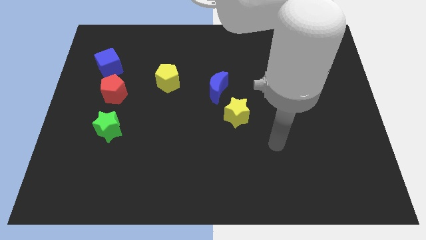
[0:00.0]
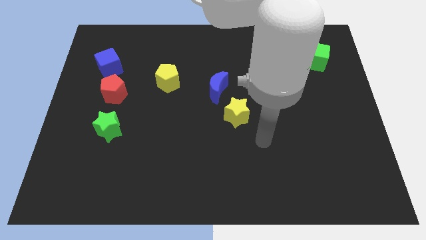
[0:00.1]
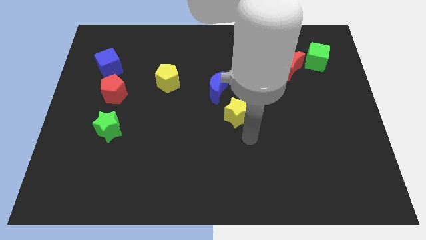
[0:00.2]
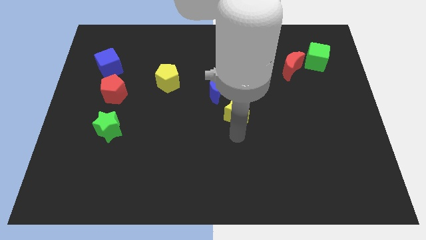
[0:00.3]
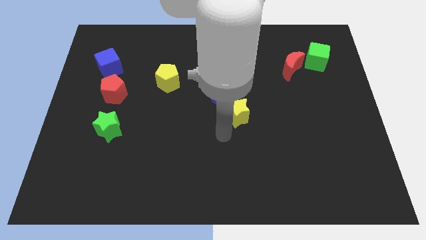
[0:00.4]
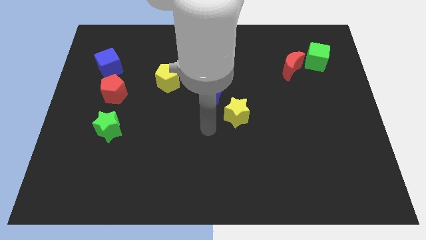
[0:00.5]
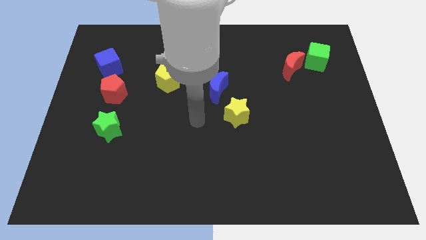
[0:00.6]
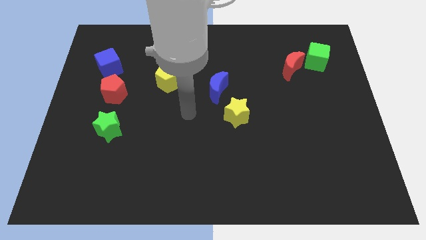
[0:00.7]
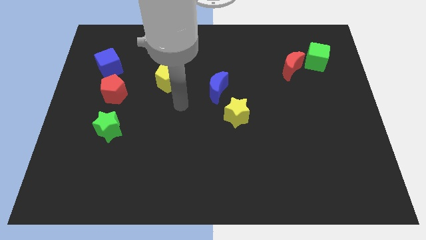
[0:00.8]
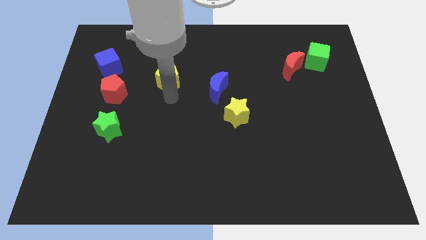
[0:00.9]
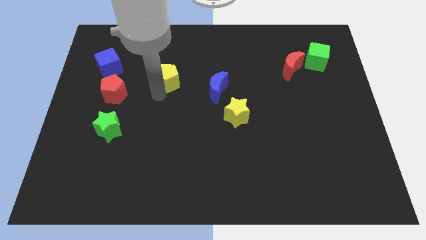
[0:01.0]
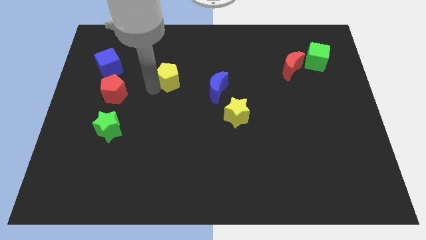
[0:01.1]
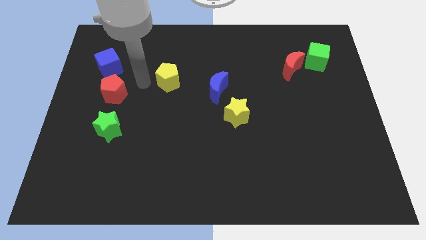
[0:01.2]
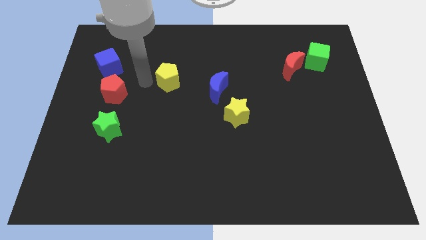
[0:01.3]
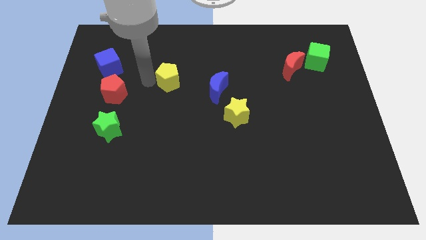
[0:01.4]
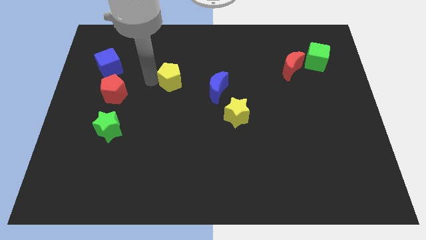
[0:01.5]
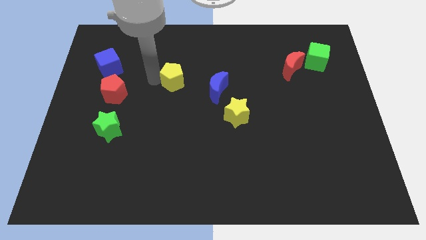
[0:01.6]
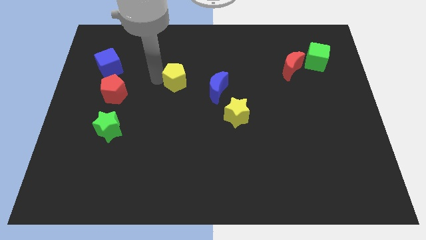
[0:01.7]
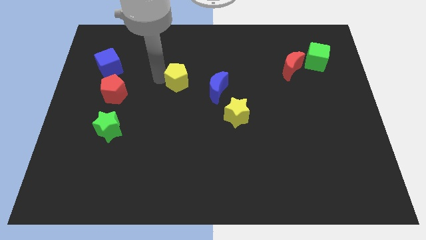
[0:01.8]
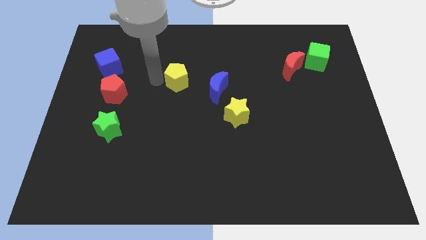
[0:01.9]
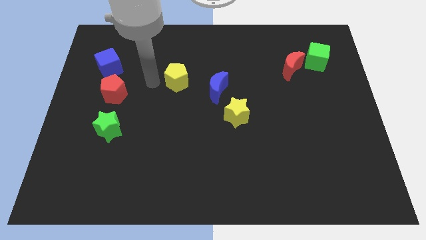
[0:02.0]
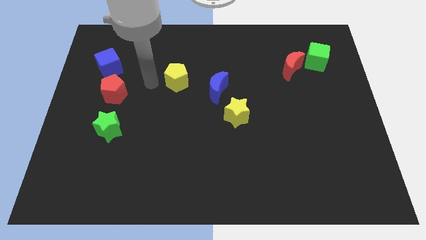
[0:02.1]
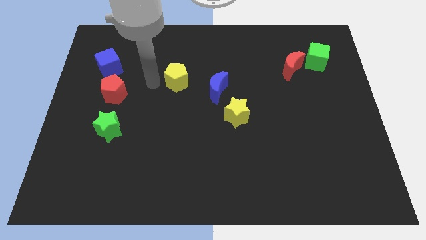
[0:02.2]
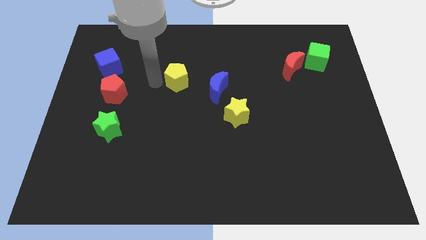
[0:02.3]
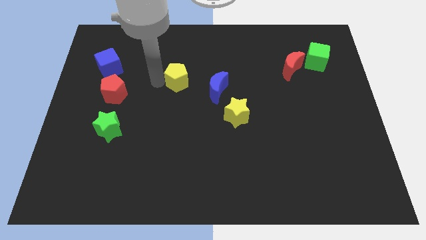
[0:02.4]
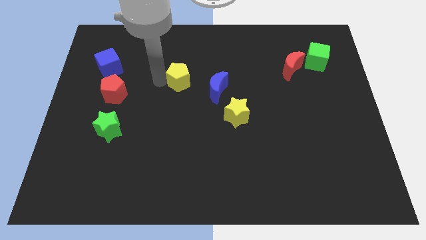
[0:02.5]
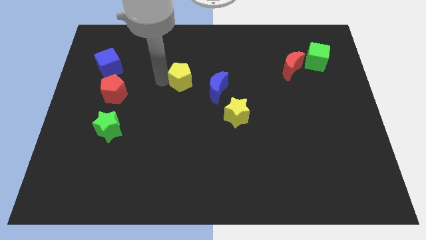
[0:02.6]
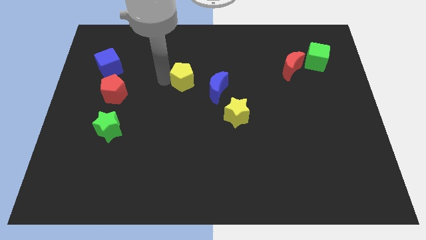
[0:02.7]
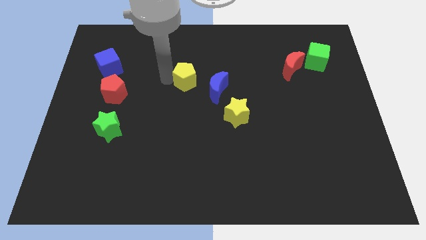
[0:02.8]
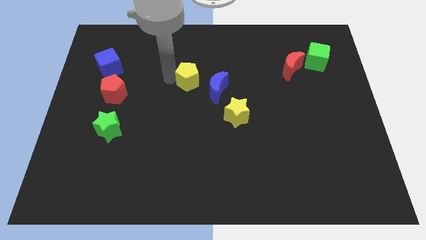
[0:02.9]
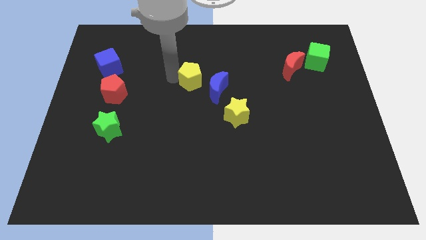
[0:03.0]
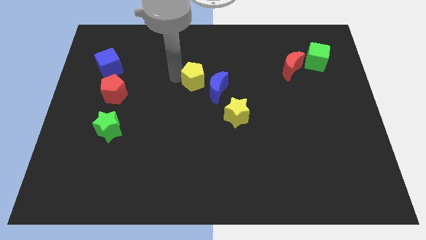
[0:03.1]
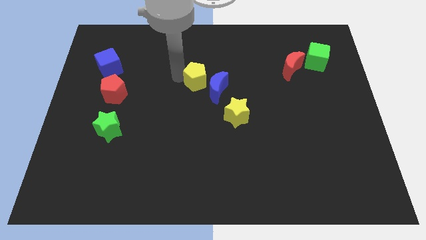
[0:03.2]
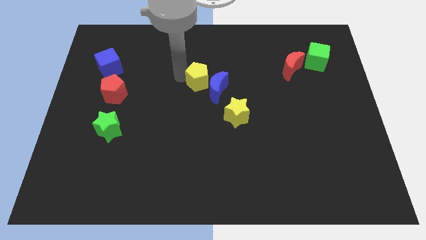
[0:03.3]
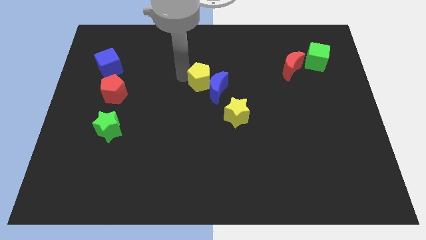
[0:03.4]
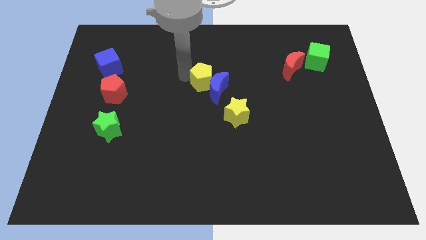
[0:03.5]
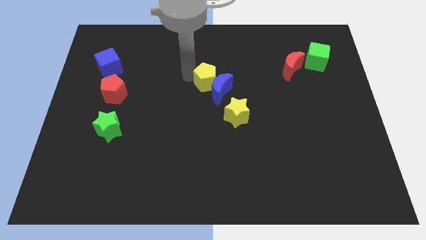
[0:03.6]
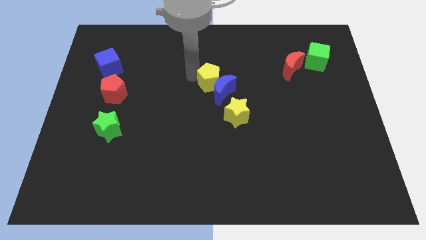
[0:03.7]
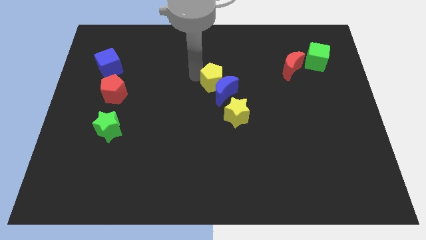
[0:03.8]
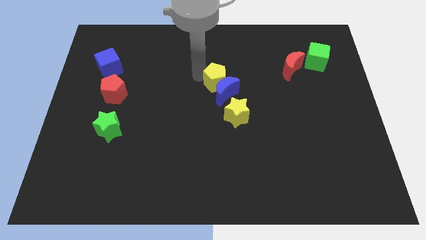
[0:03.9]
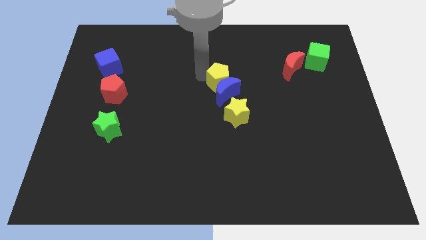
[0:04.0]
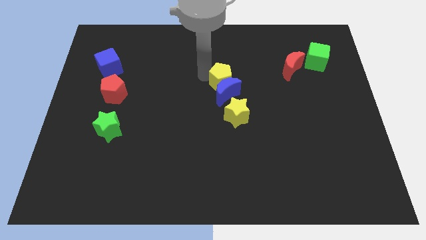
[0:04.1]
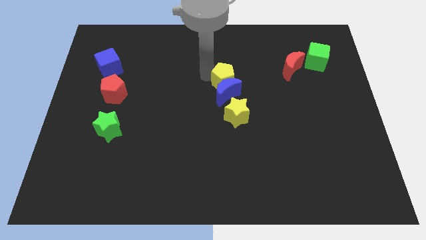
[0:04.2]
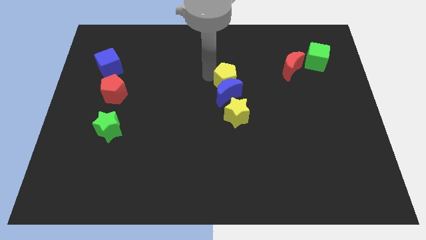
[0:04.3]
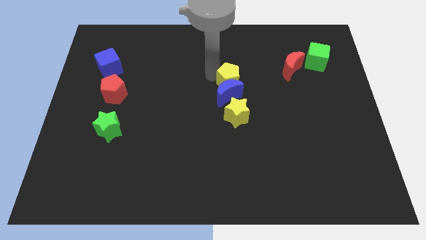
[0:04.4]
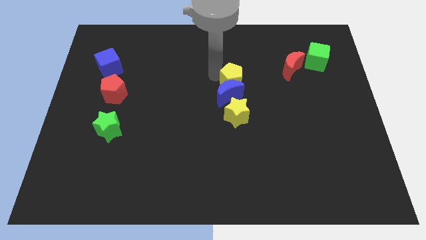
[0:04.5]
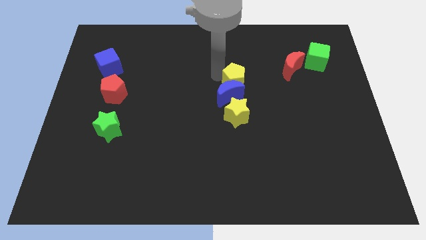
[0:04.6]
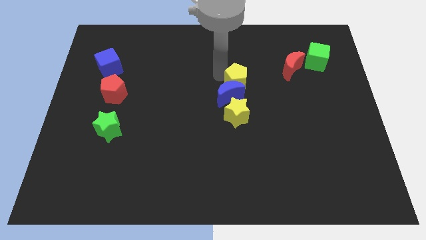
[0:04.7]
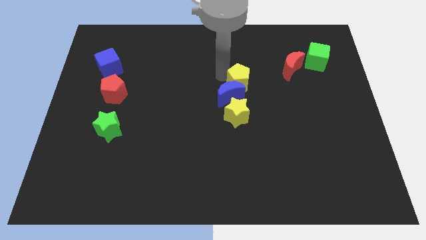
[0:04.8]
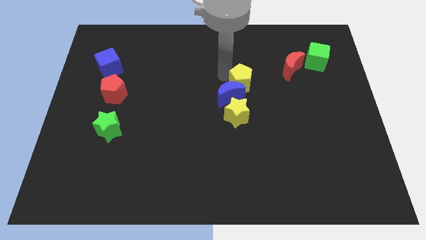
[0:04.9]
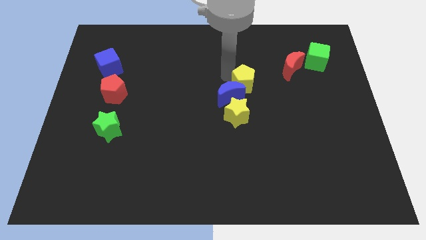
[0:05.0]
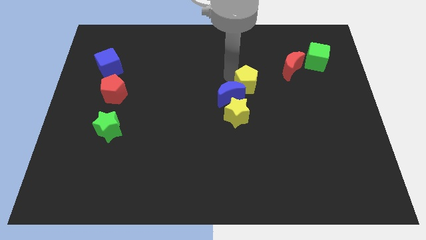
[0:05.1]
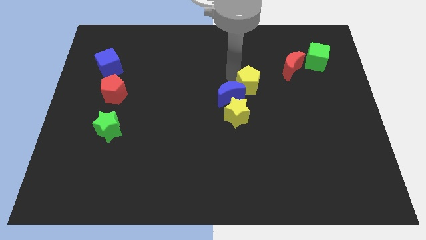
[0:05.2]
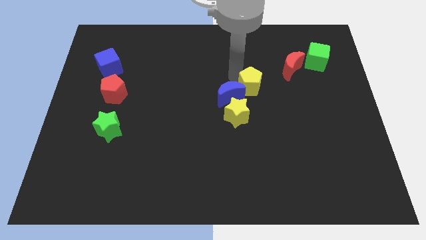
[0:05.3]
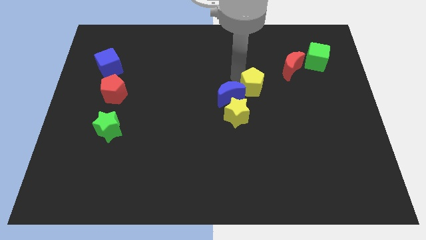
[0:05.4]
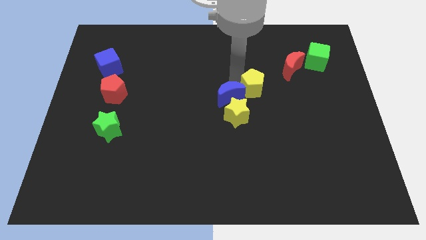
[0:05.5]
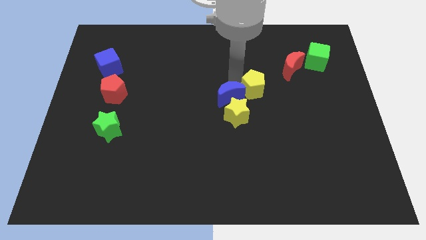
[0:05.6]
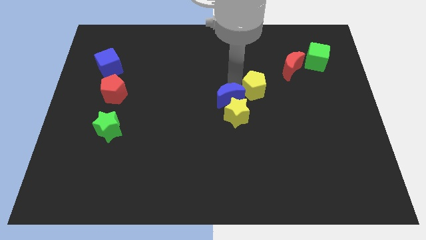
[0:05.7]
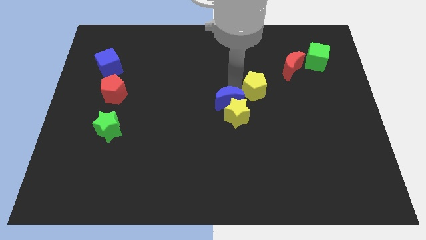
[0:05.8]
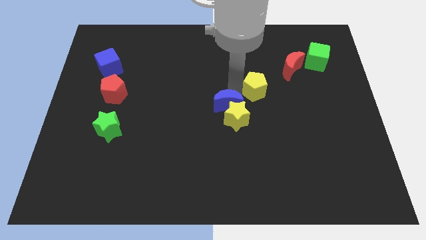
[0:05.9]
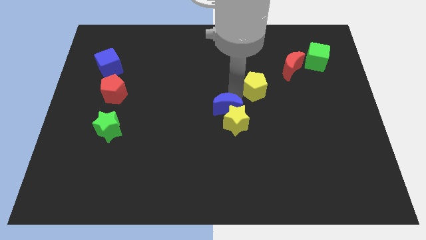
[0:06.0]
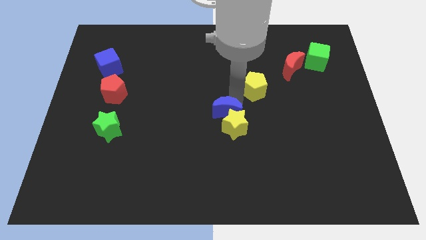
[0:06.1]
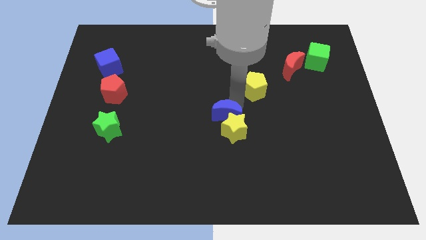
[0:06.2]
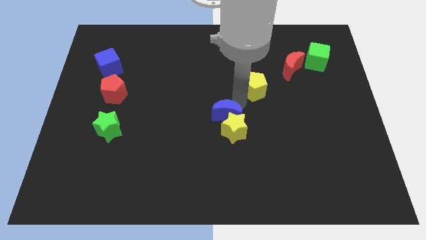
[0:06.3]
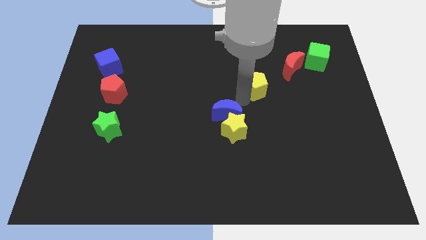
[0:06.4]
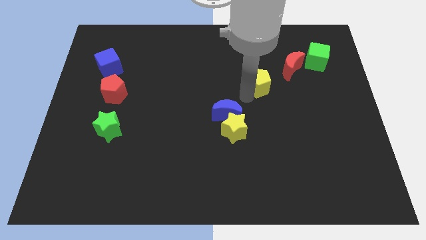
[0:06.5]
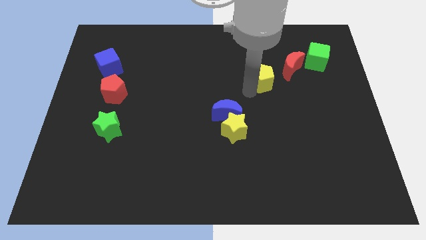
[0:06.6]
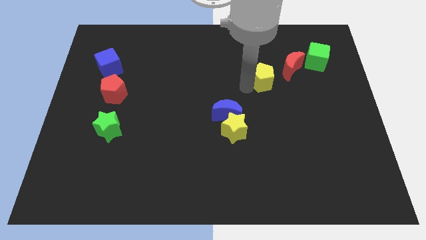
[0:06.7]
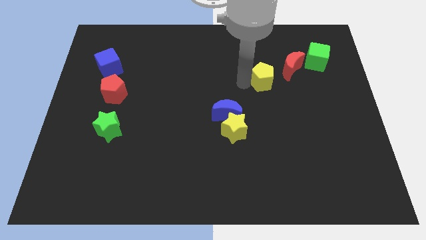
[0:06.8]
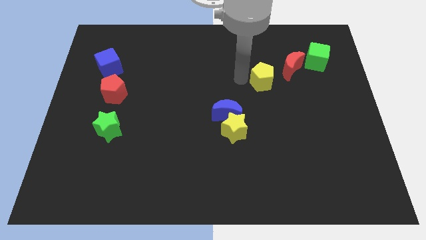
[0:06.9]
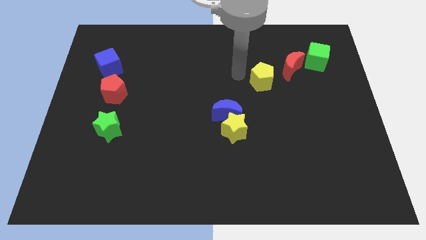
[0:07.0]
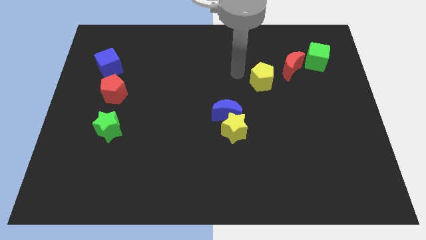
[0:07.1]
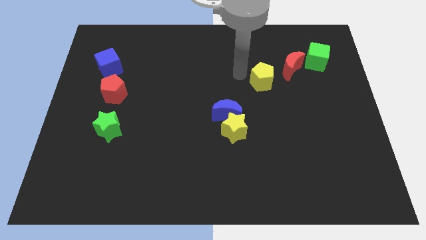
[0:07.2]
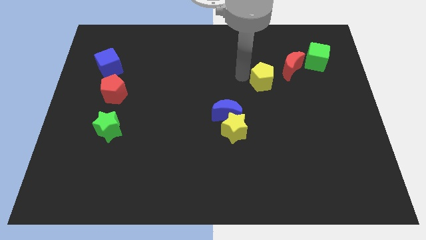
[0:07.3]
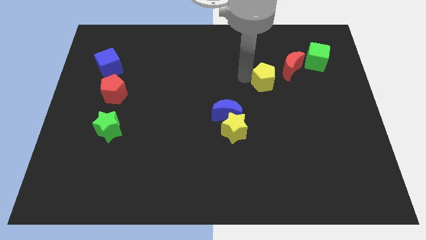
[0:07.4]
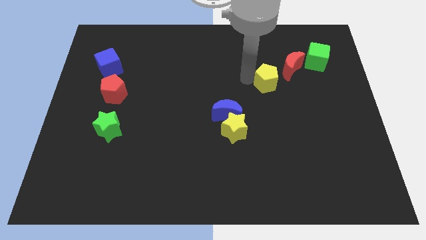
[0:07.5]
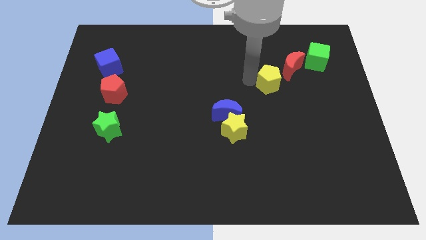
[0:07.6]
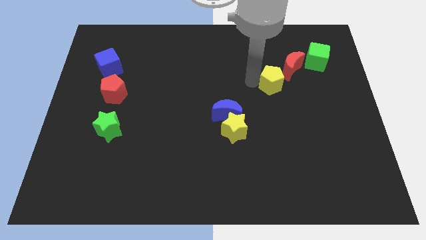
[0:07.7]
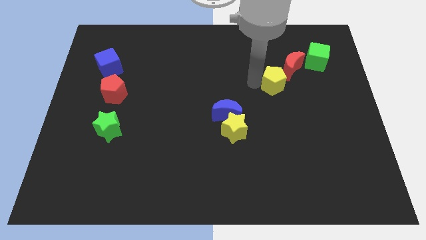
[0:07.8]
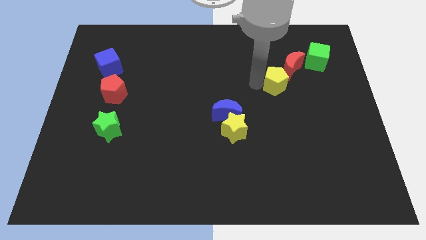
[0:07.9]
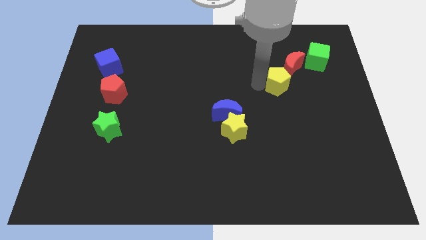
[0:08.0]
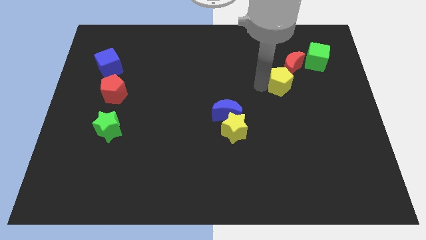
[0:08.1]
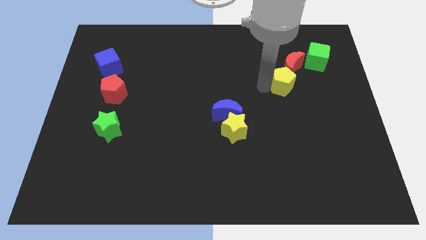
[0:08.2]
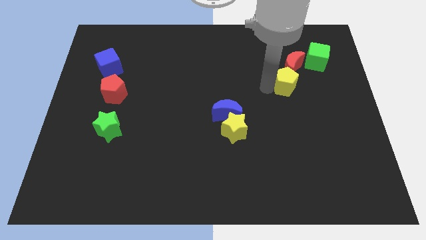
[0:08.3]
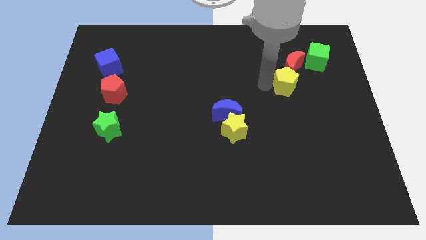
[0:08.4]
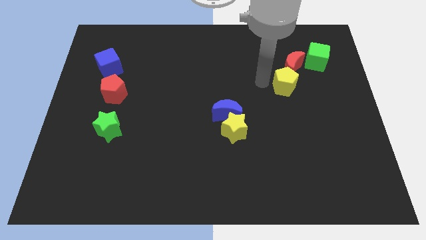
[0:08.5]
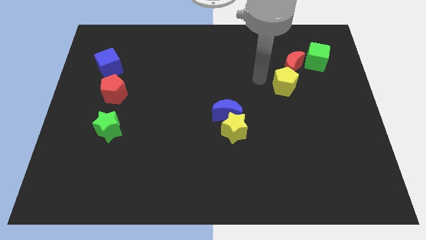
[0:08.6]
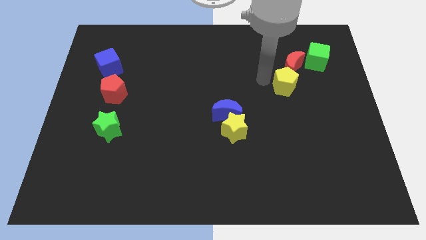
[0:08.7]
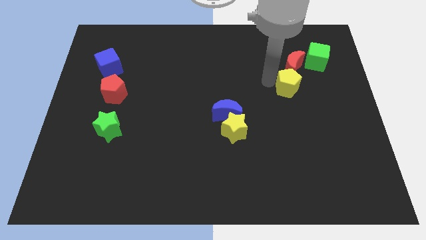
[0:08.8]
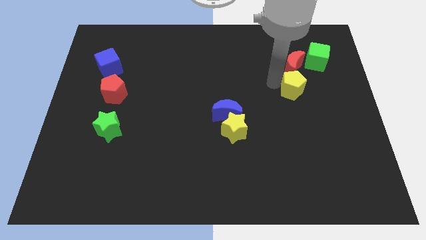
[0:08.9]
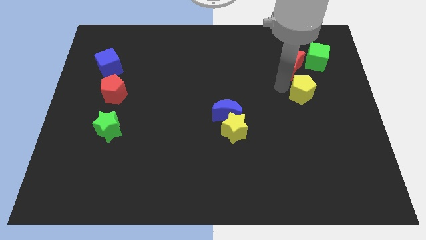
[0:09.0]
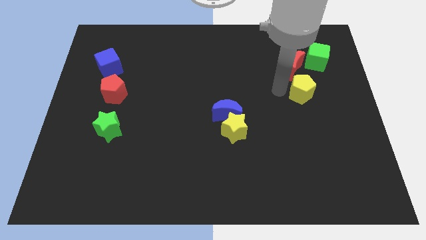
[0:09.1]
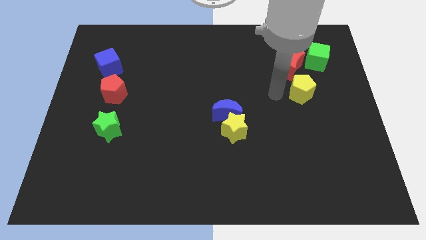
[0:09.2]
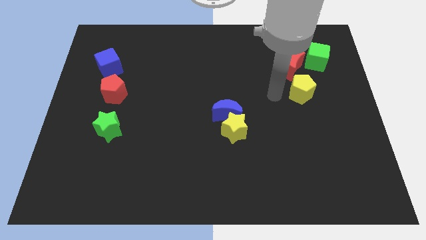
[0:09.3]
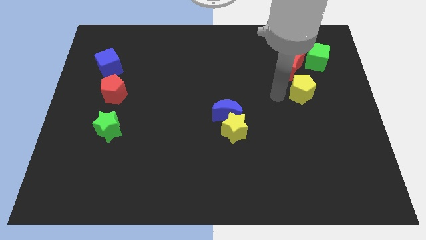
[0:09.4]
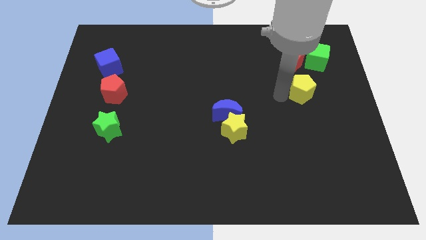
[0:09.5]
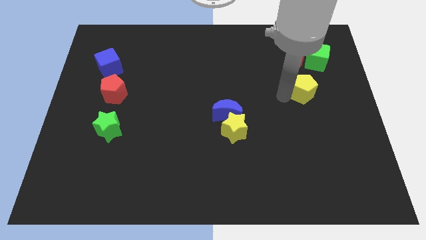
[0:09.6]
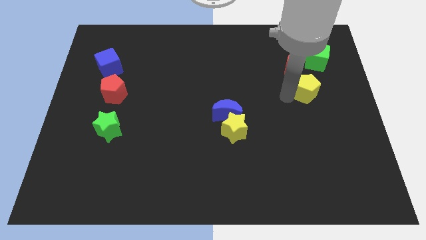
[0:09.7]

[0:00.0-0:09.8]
slide the yellow pentagon to the bottom side of the green cube
